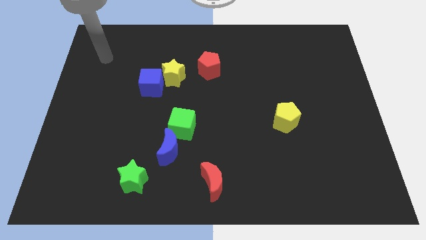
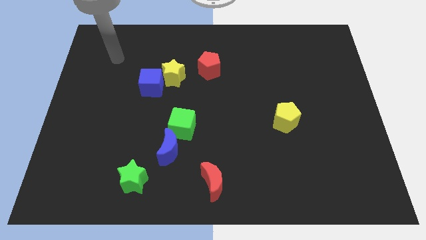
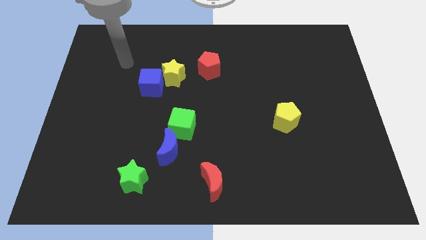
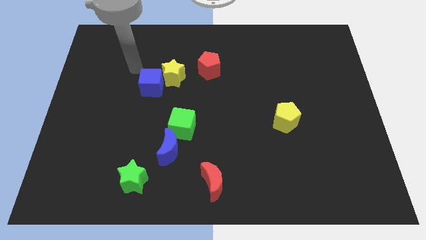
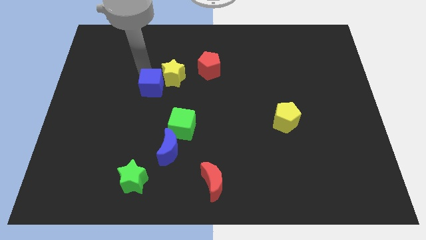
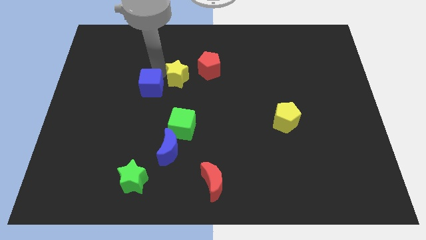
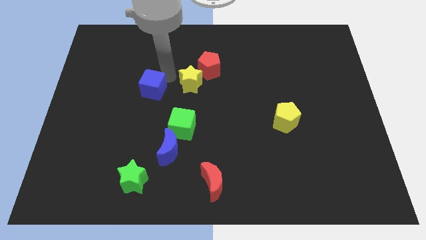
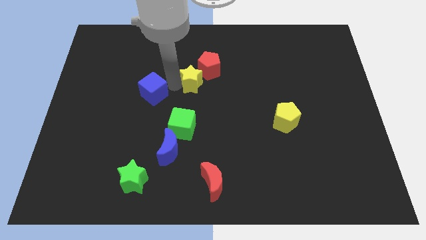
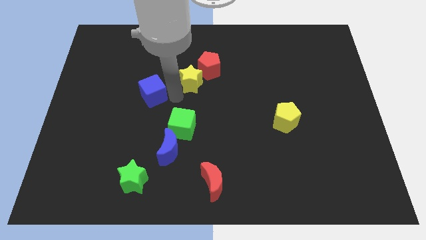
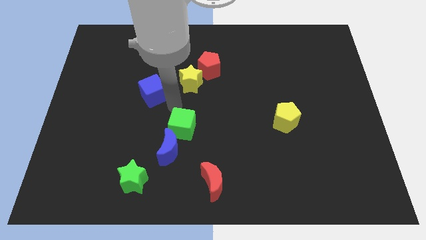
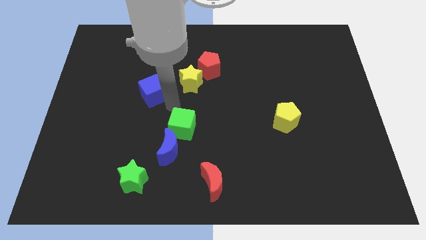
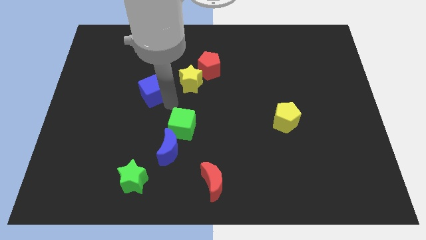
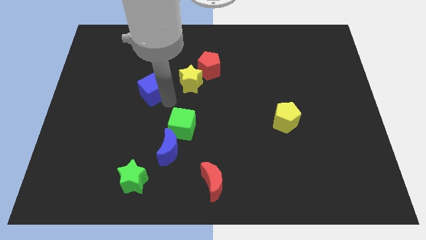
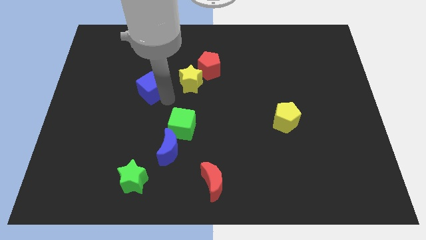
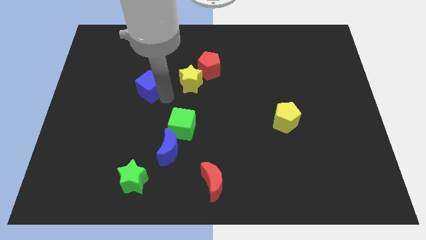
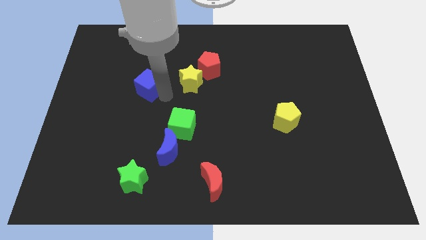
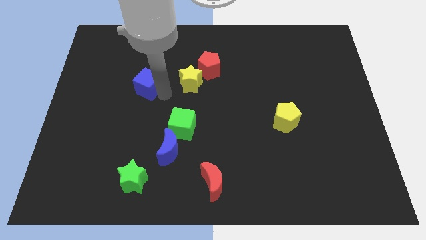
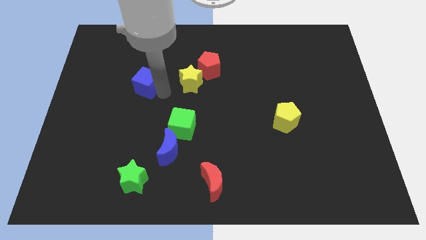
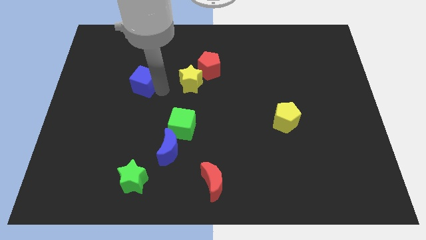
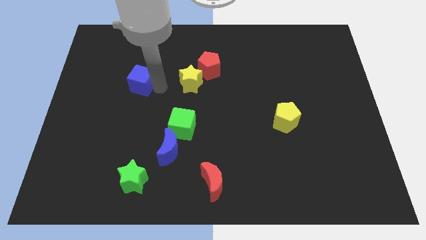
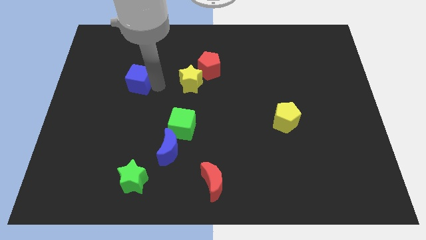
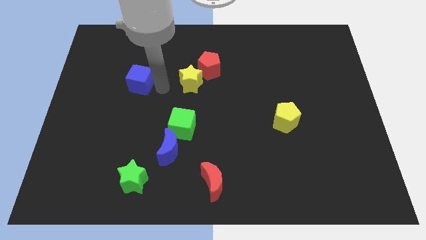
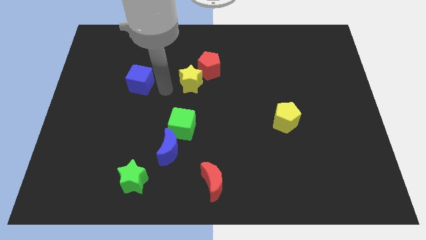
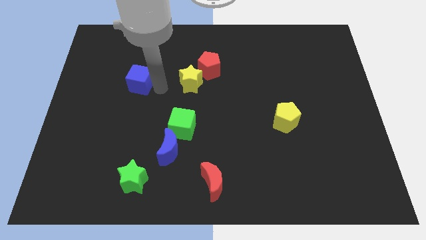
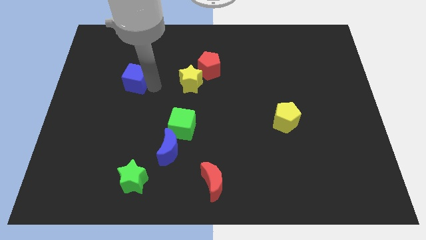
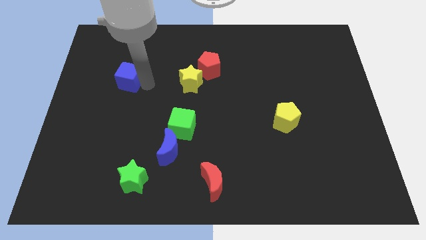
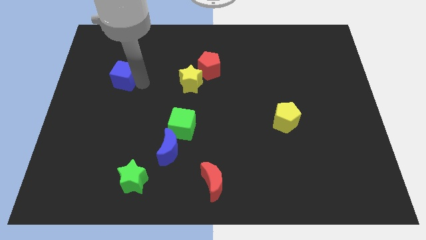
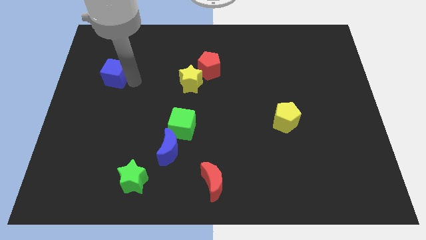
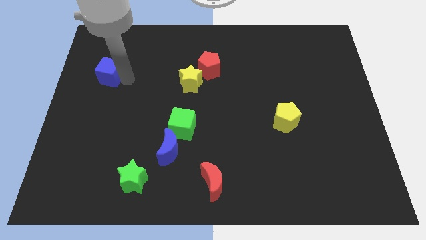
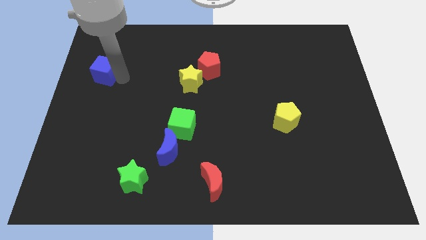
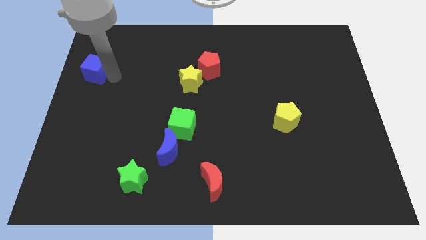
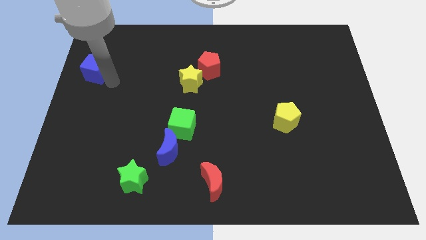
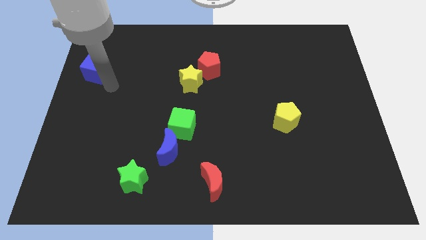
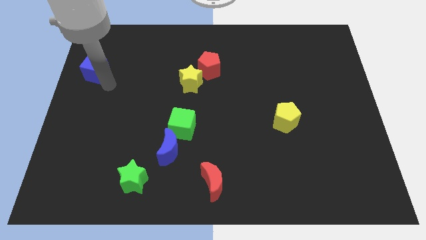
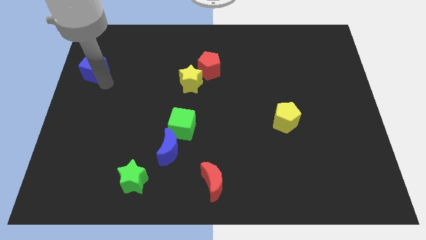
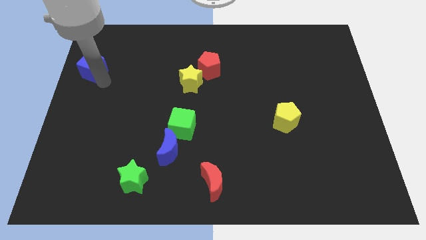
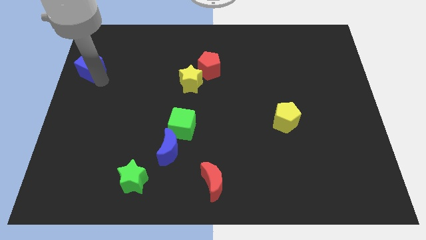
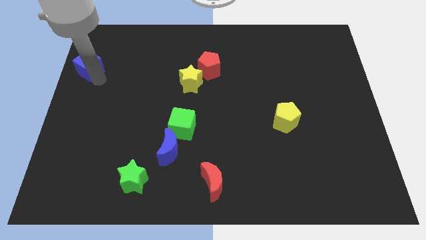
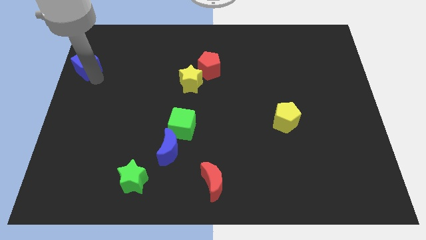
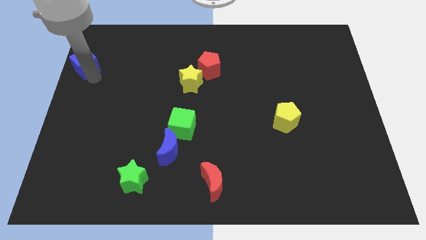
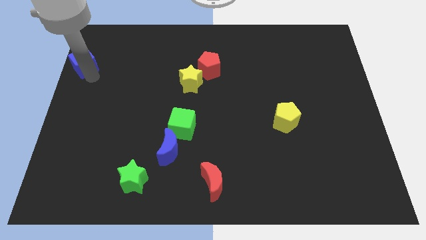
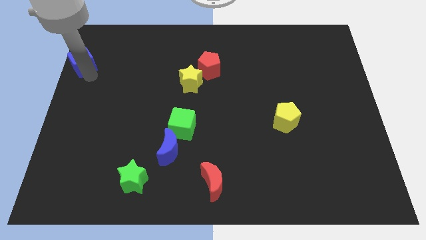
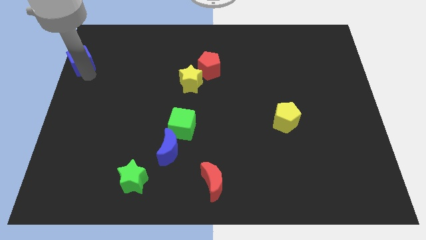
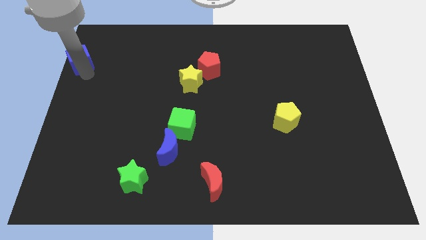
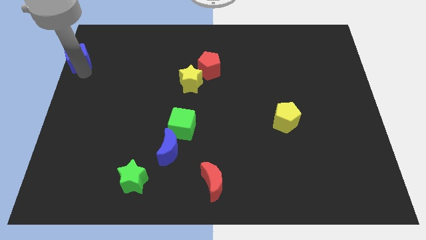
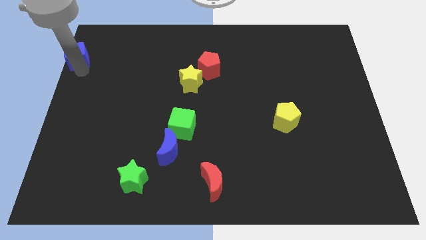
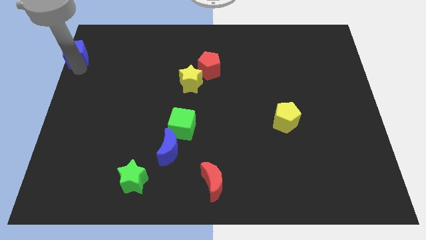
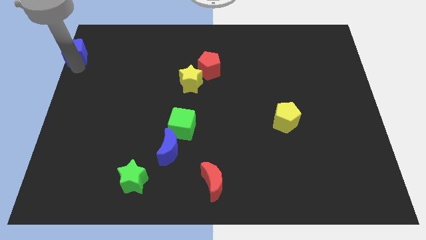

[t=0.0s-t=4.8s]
slide the blue cube to the top left of the board

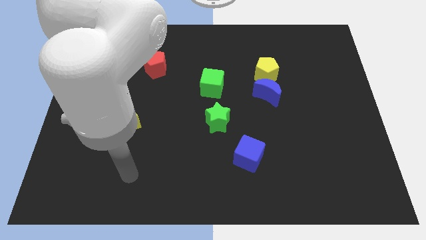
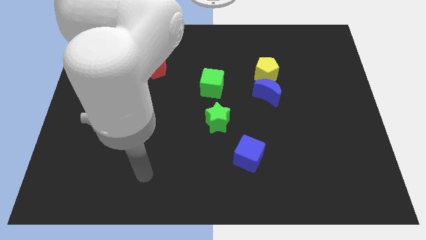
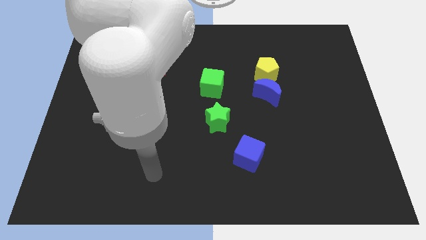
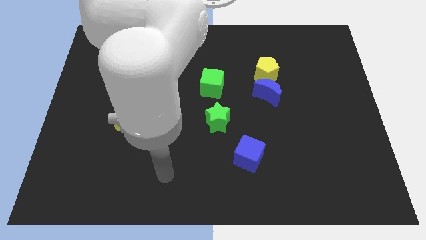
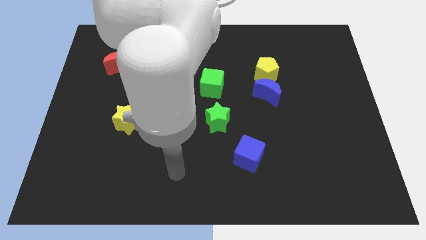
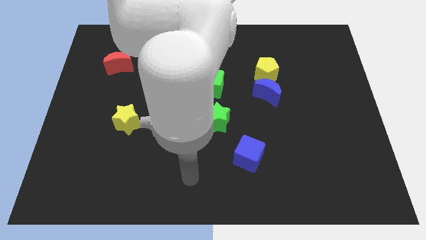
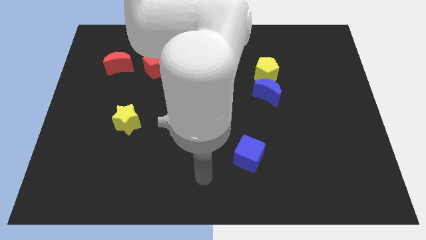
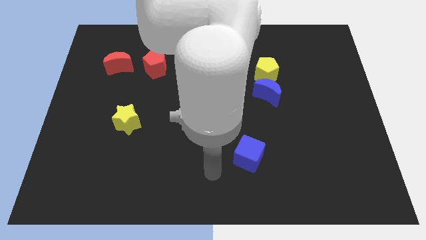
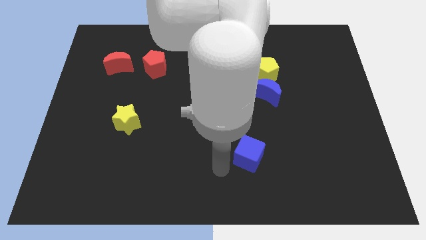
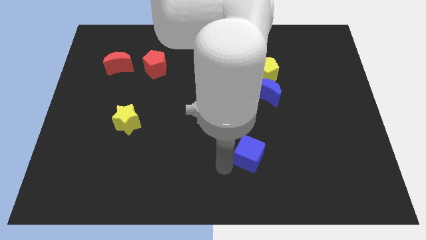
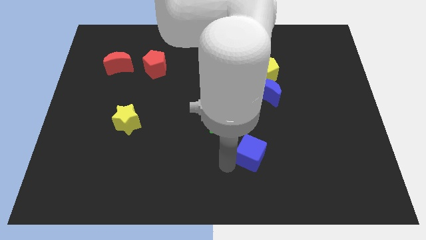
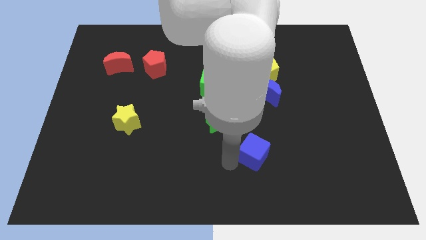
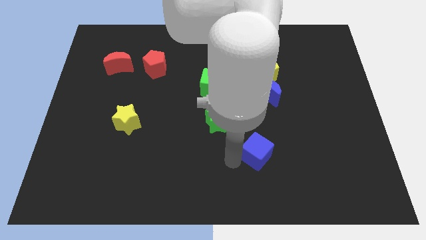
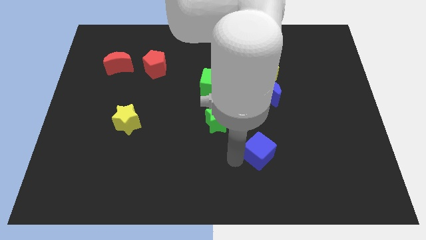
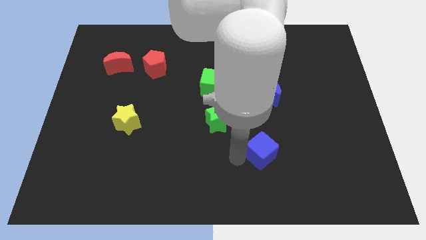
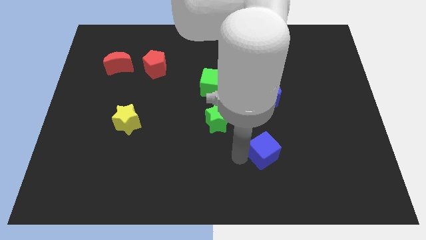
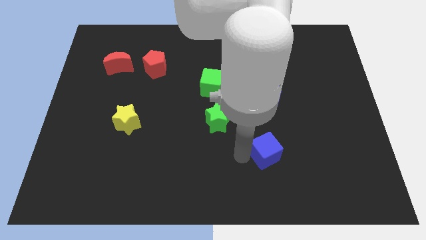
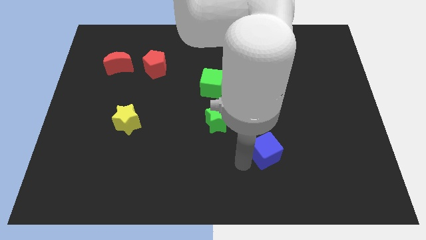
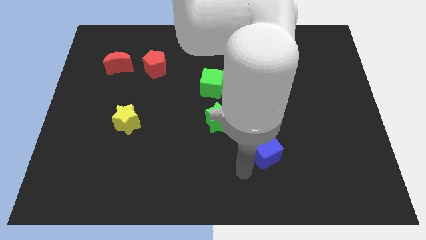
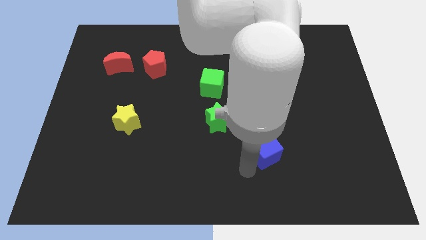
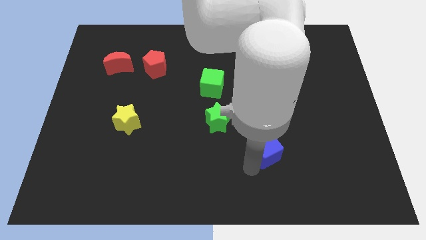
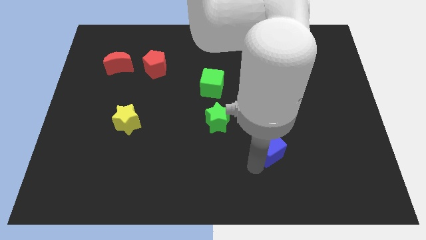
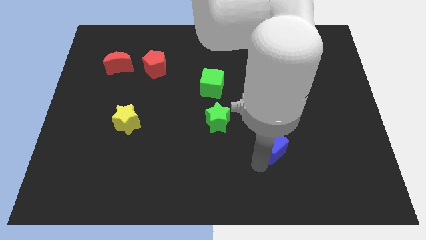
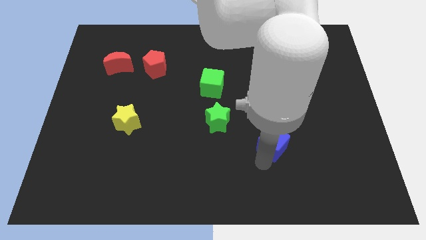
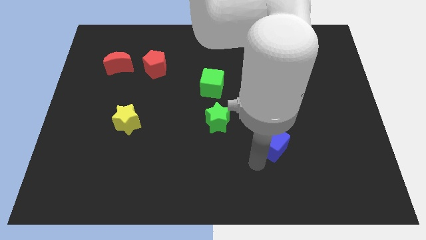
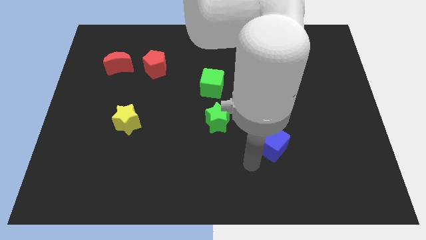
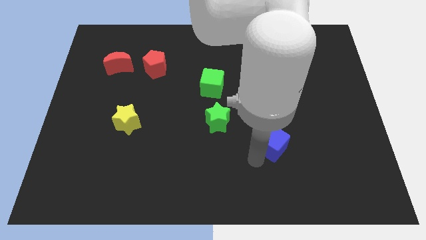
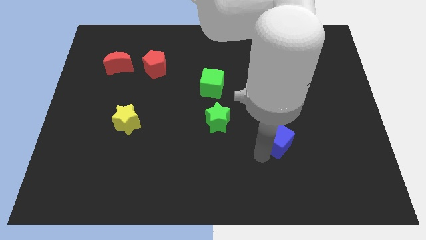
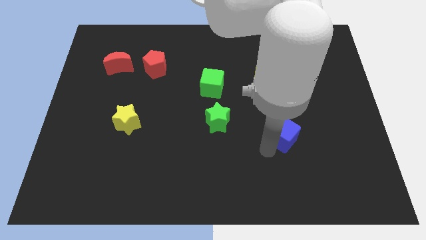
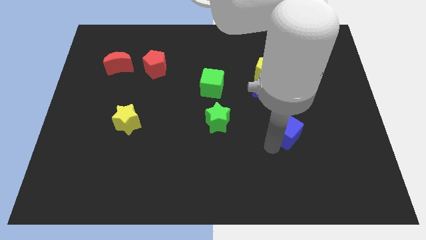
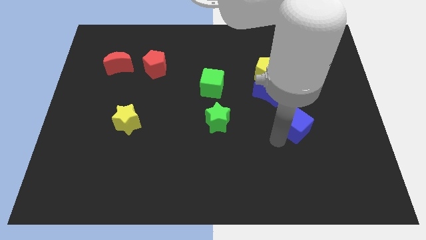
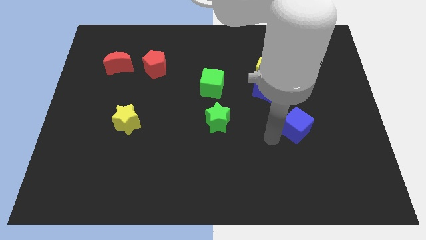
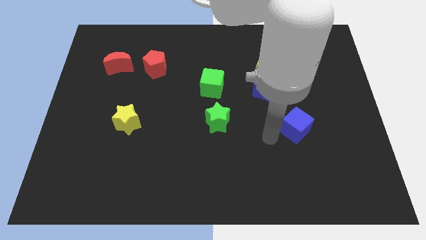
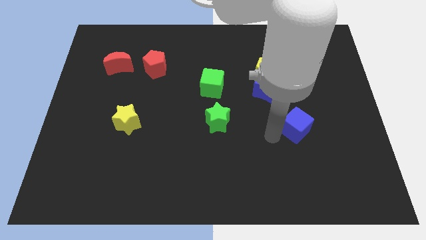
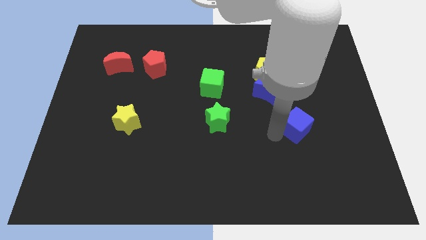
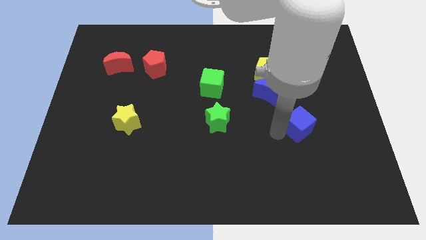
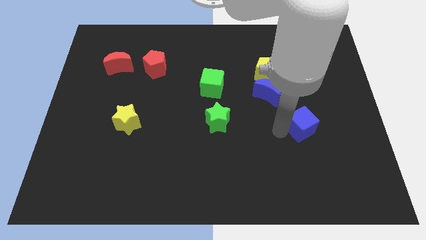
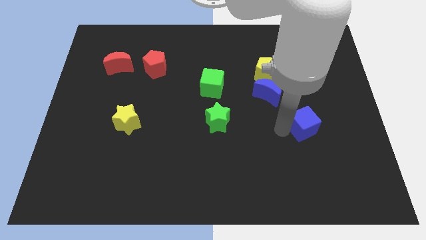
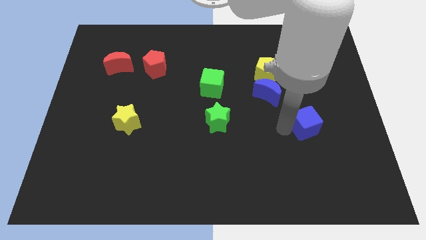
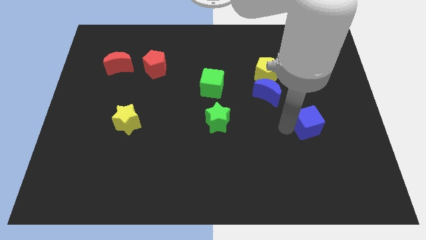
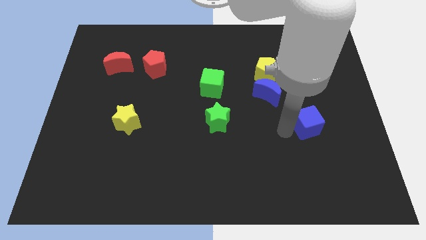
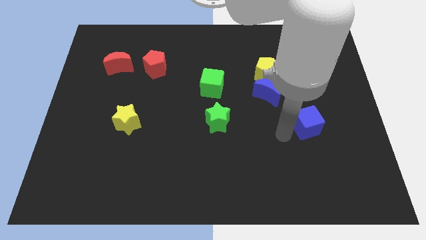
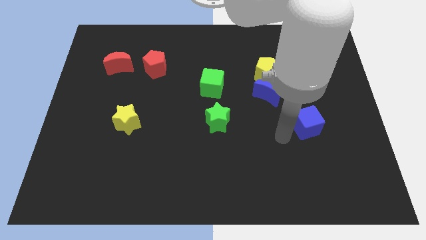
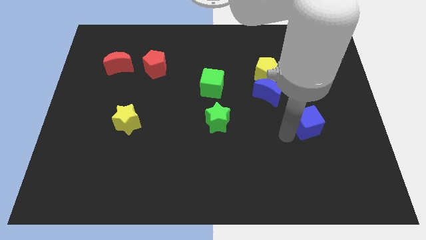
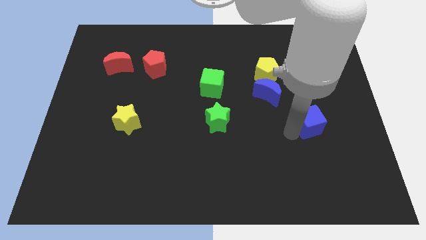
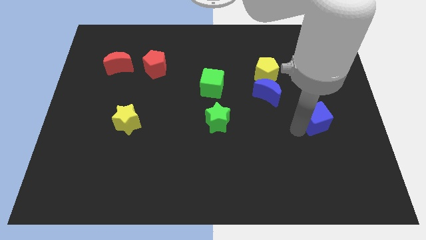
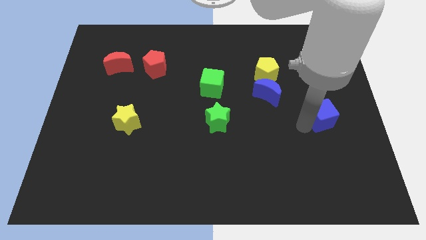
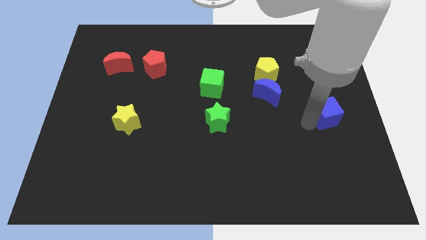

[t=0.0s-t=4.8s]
slide the blue cube to the right side of the board
